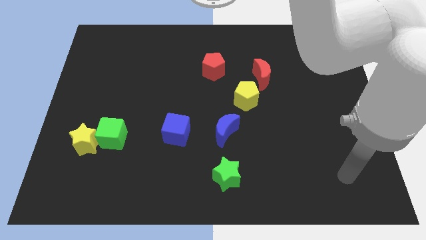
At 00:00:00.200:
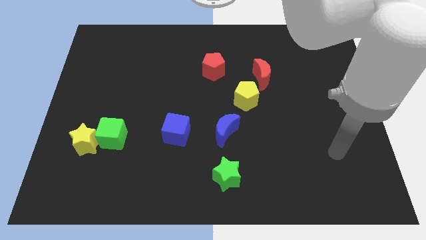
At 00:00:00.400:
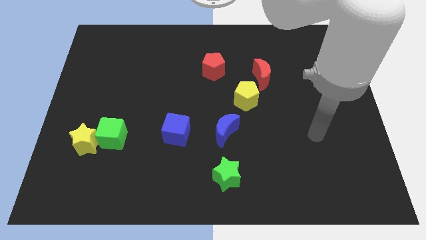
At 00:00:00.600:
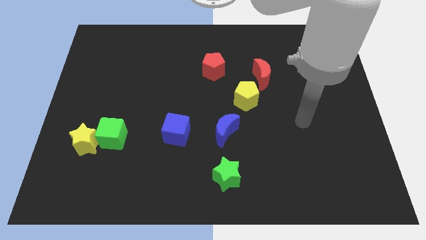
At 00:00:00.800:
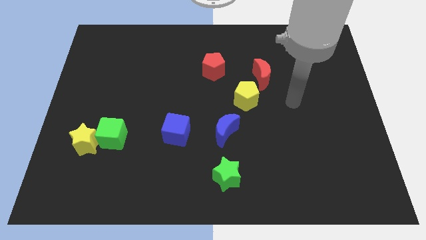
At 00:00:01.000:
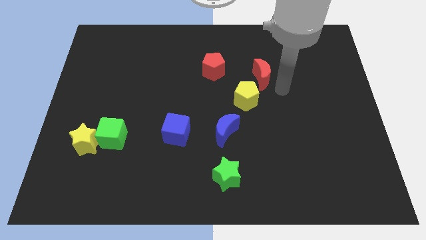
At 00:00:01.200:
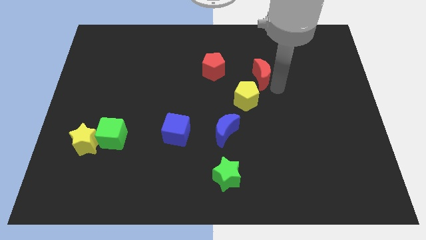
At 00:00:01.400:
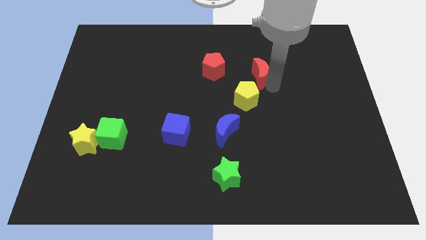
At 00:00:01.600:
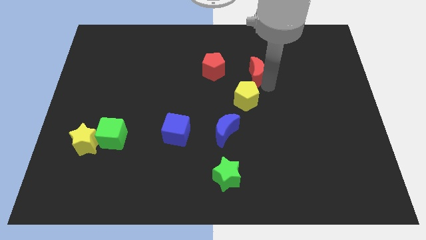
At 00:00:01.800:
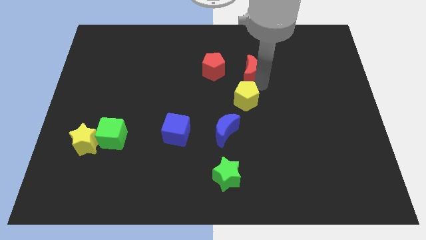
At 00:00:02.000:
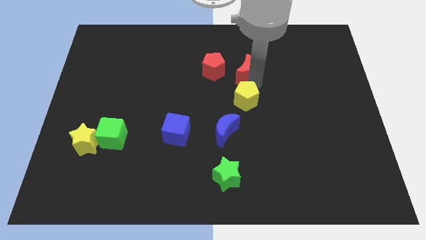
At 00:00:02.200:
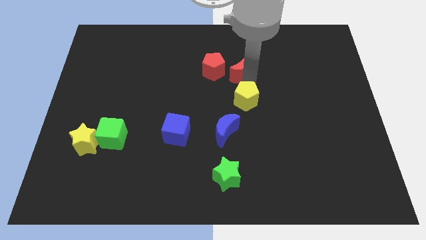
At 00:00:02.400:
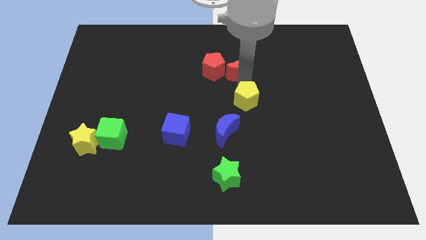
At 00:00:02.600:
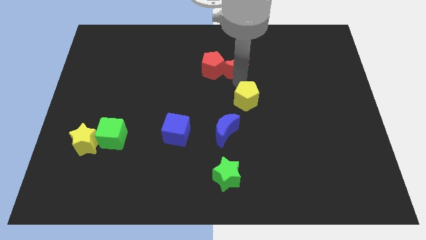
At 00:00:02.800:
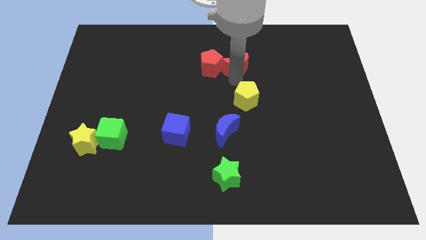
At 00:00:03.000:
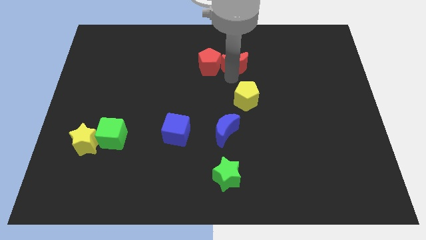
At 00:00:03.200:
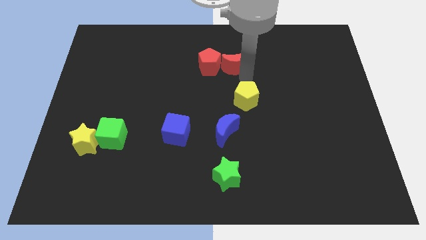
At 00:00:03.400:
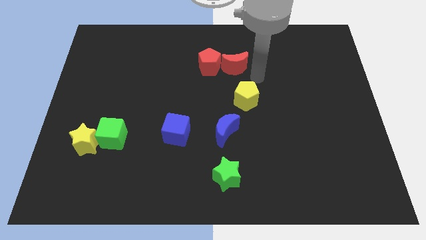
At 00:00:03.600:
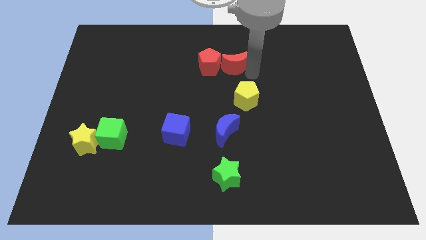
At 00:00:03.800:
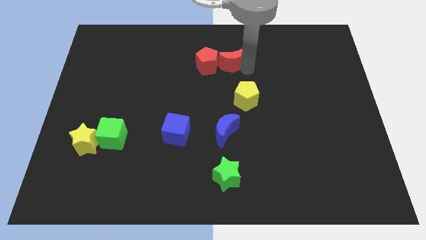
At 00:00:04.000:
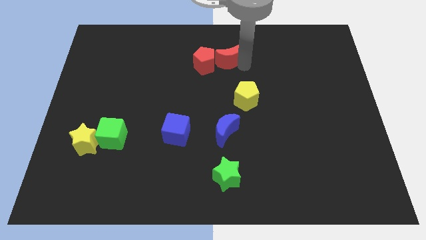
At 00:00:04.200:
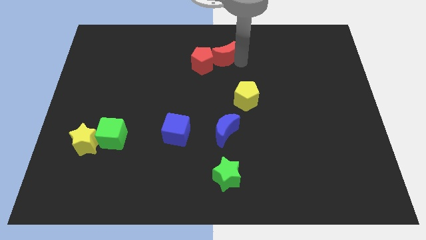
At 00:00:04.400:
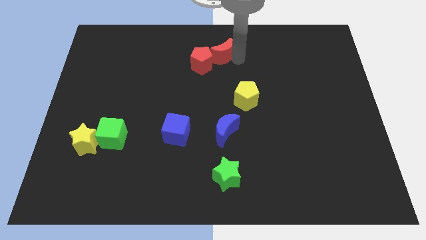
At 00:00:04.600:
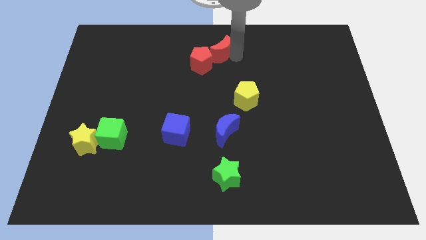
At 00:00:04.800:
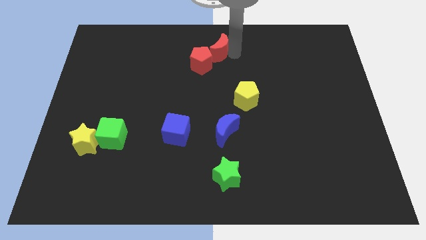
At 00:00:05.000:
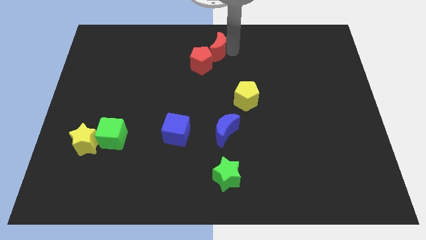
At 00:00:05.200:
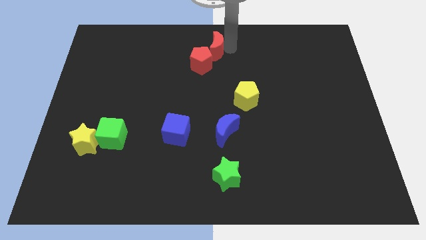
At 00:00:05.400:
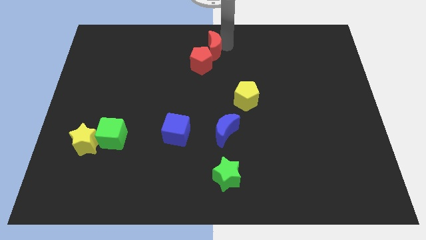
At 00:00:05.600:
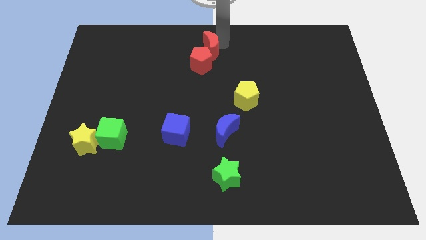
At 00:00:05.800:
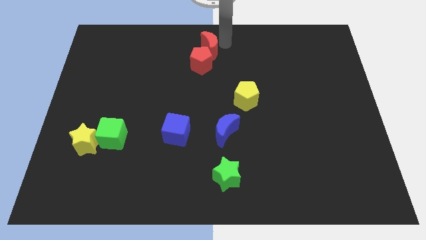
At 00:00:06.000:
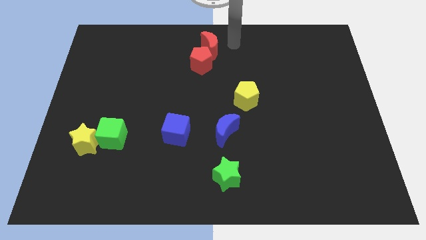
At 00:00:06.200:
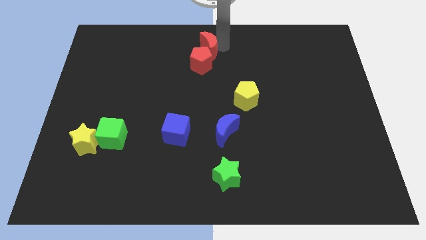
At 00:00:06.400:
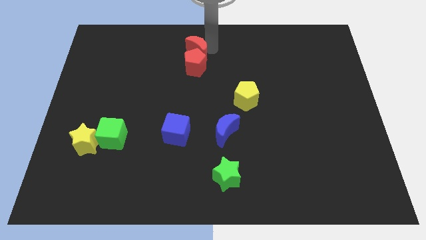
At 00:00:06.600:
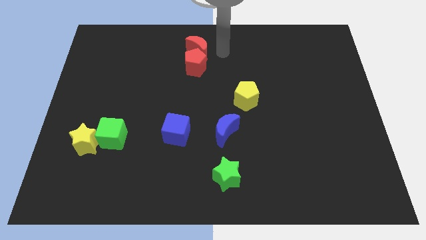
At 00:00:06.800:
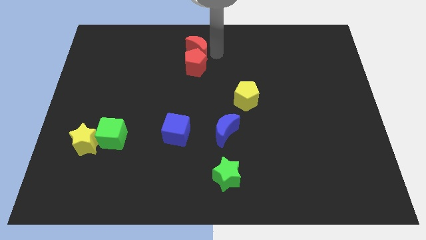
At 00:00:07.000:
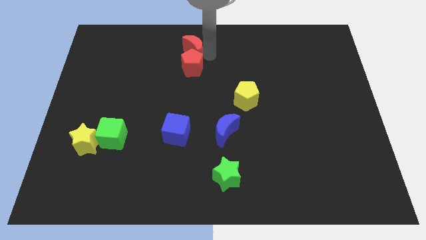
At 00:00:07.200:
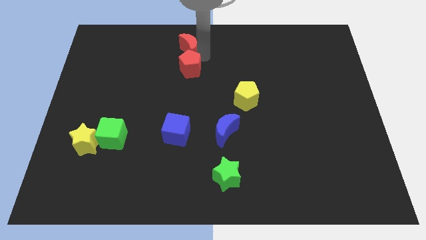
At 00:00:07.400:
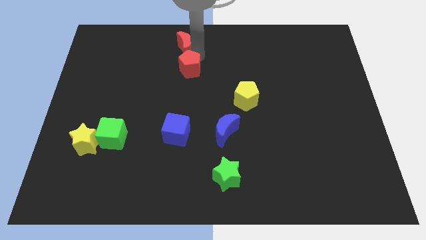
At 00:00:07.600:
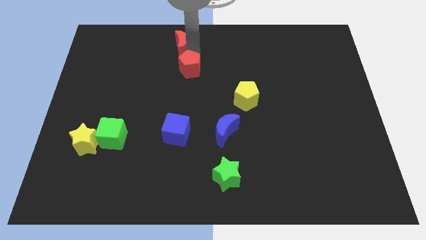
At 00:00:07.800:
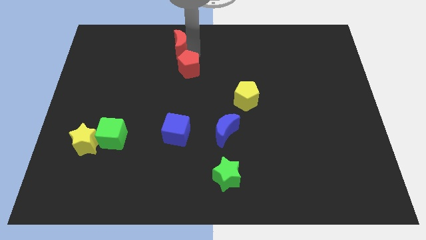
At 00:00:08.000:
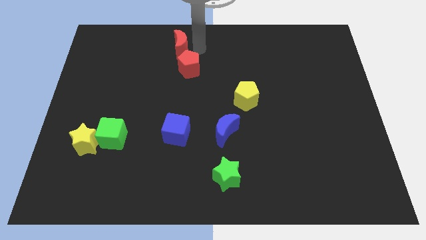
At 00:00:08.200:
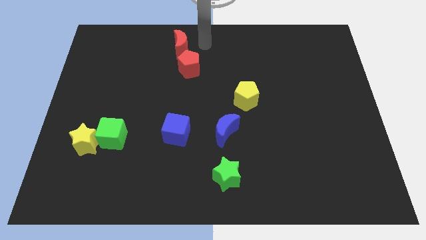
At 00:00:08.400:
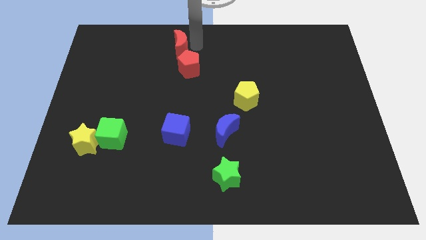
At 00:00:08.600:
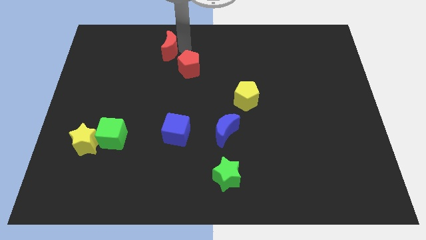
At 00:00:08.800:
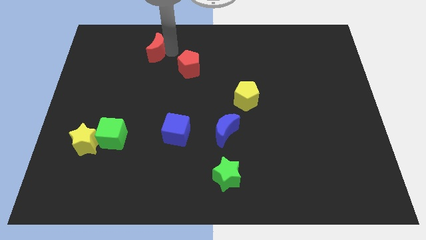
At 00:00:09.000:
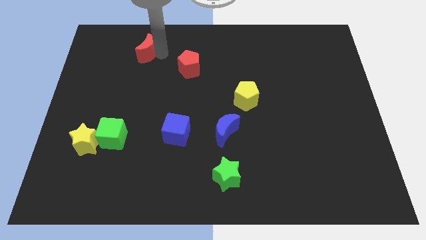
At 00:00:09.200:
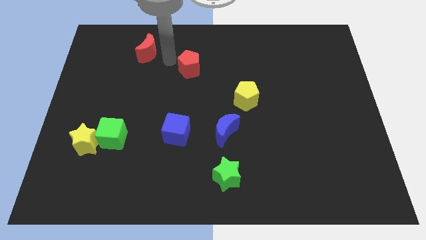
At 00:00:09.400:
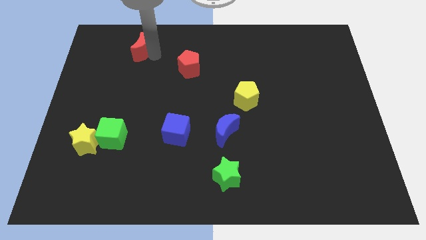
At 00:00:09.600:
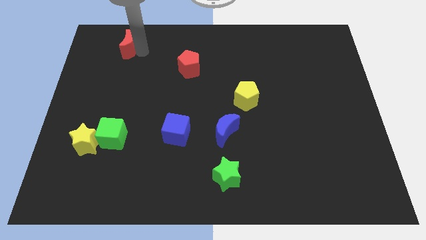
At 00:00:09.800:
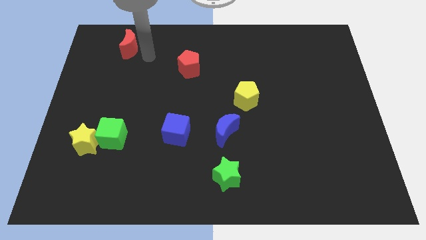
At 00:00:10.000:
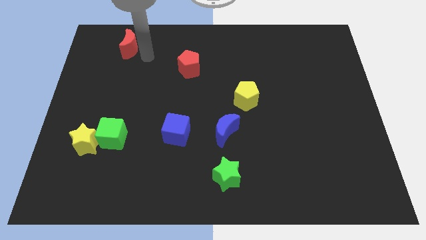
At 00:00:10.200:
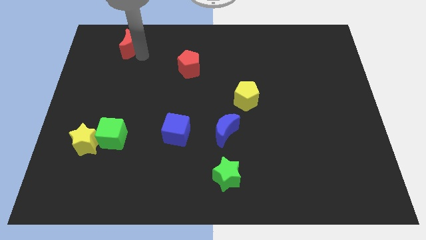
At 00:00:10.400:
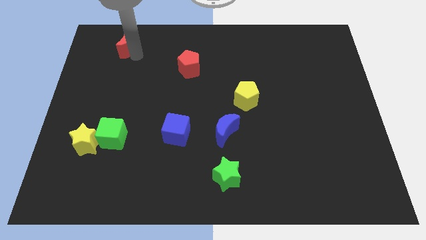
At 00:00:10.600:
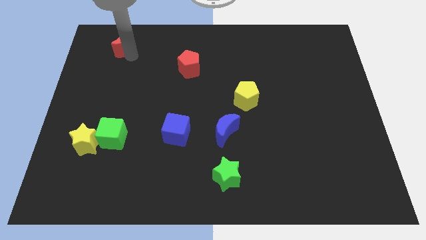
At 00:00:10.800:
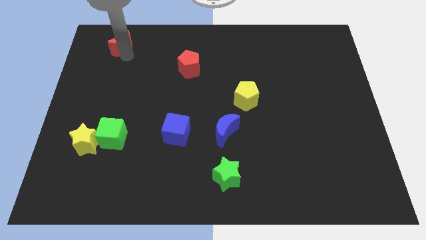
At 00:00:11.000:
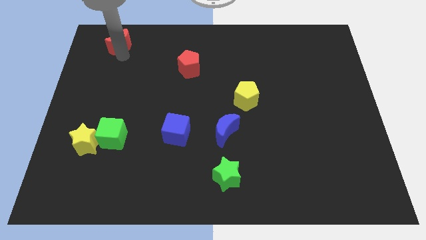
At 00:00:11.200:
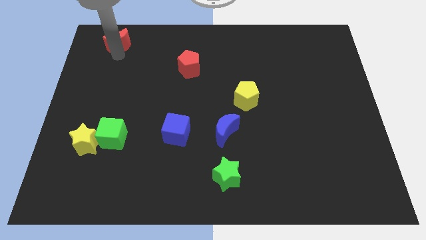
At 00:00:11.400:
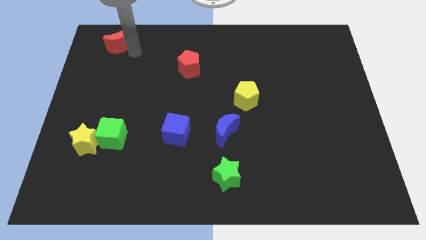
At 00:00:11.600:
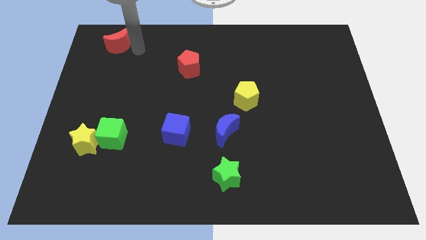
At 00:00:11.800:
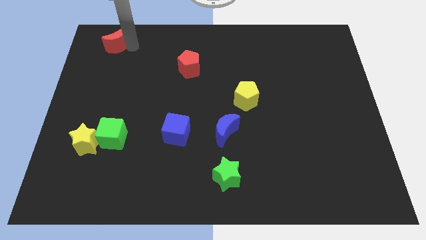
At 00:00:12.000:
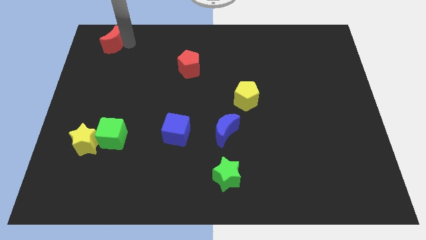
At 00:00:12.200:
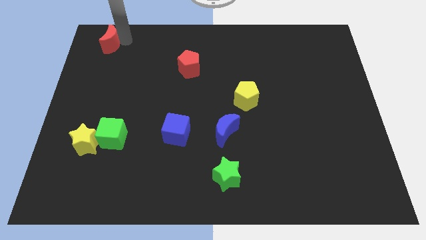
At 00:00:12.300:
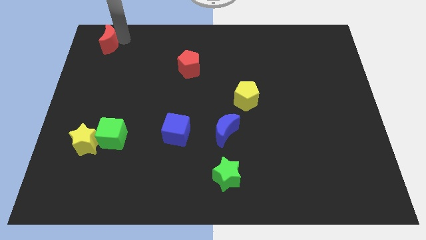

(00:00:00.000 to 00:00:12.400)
slide the red moon to the top left corner

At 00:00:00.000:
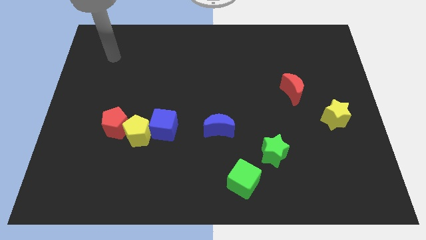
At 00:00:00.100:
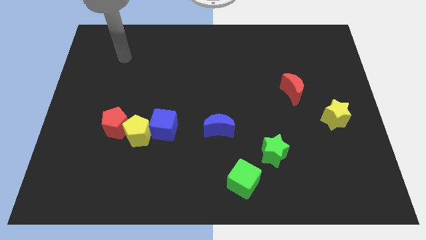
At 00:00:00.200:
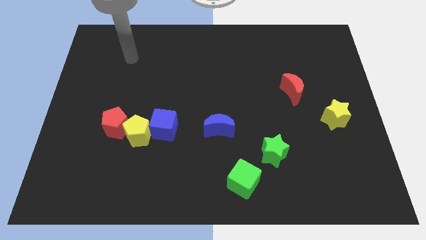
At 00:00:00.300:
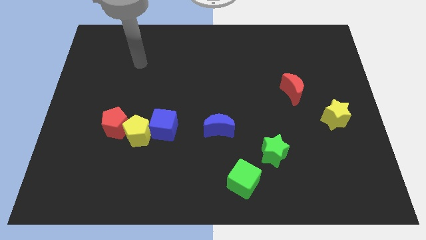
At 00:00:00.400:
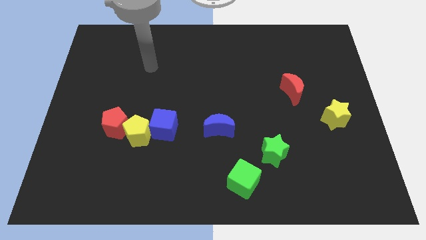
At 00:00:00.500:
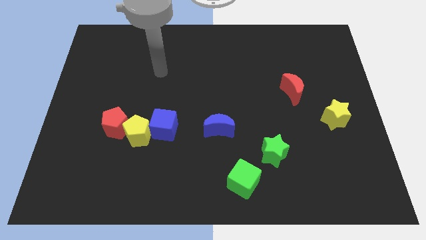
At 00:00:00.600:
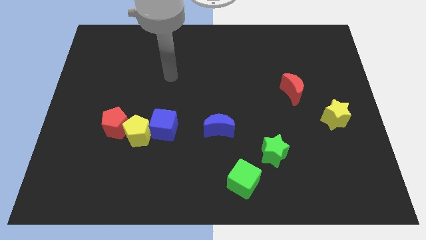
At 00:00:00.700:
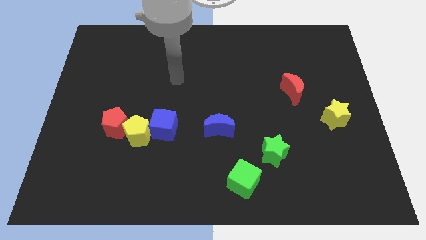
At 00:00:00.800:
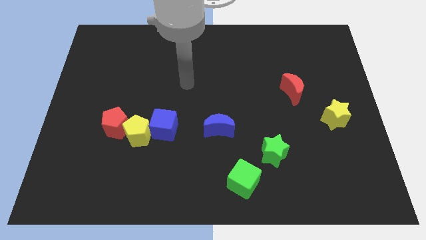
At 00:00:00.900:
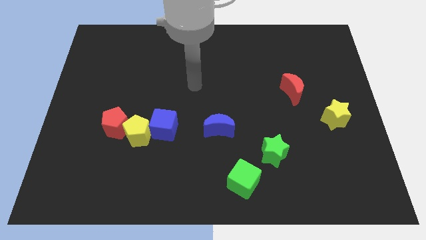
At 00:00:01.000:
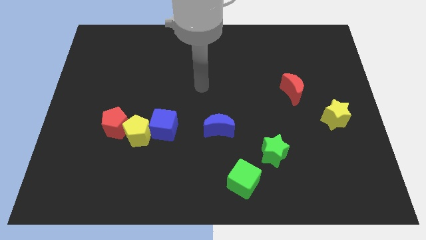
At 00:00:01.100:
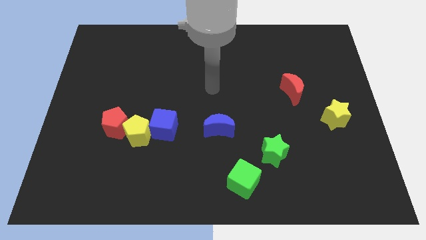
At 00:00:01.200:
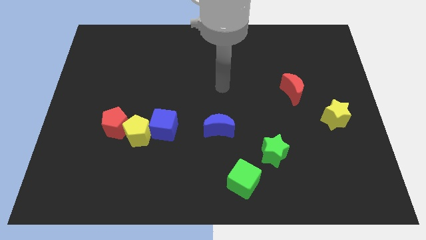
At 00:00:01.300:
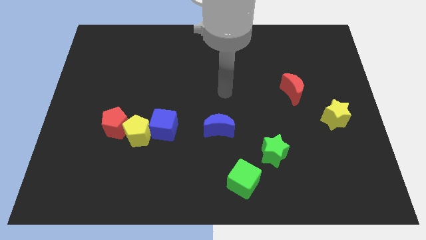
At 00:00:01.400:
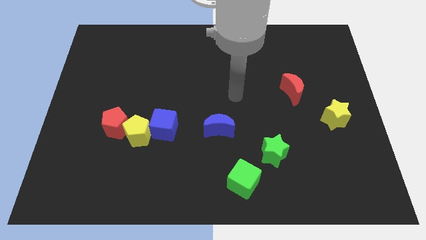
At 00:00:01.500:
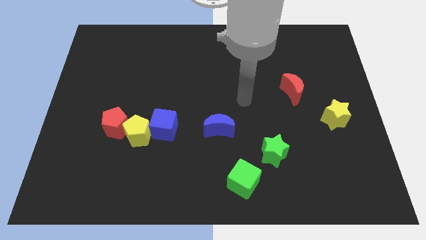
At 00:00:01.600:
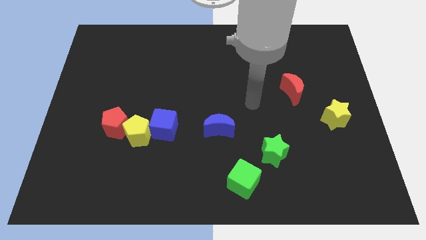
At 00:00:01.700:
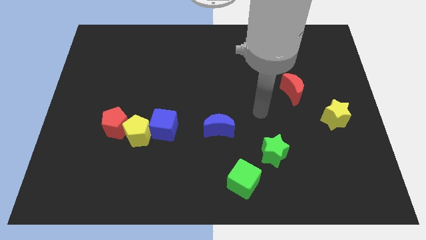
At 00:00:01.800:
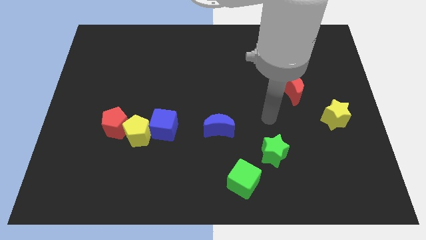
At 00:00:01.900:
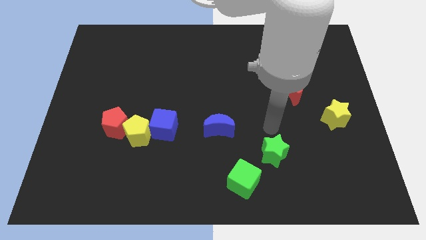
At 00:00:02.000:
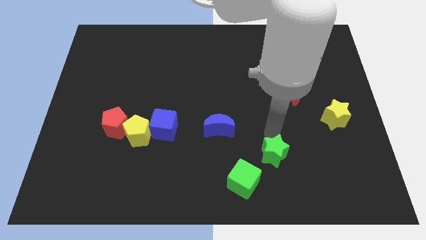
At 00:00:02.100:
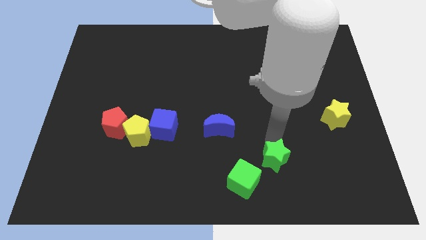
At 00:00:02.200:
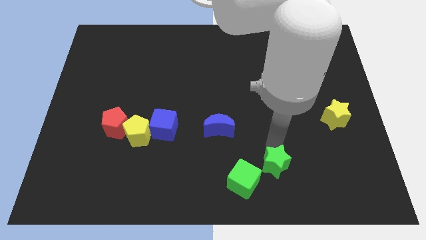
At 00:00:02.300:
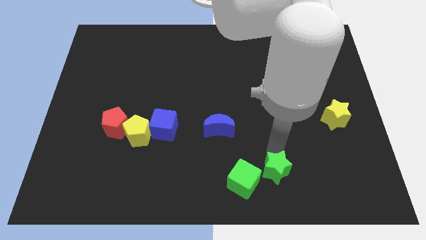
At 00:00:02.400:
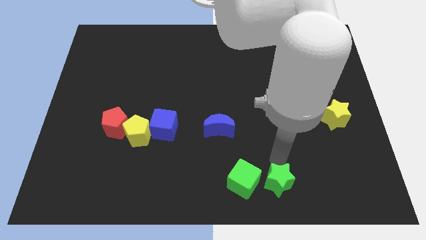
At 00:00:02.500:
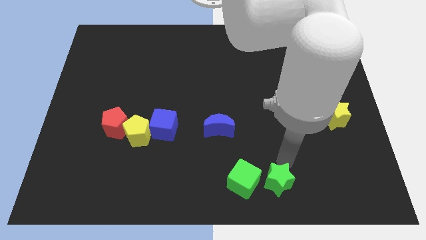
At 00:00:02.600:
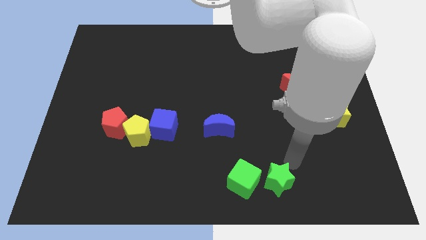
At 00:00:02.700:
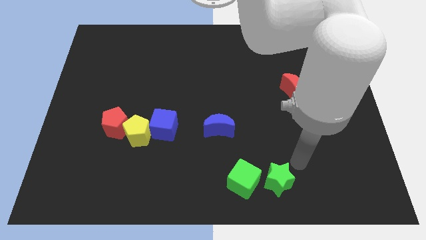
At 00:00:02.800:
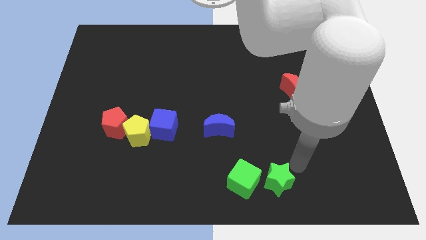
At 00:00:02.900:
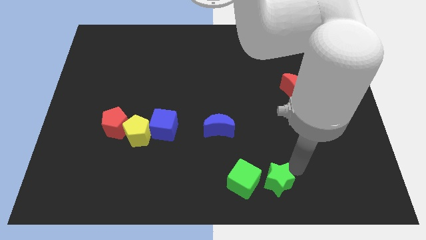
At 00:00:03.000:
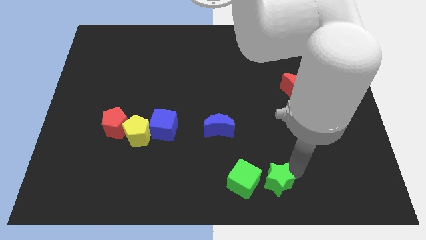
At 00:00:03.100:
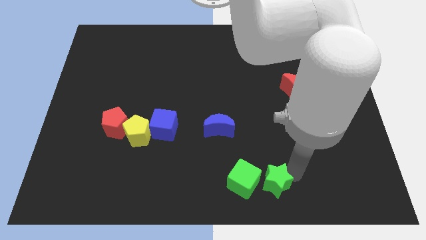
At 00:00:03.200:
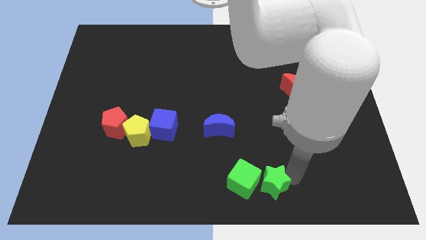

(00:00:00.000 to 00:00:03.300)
move the green star to the bottom side
